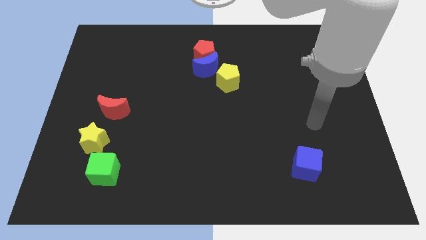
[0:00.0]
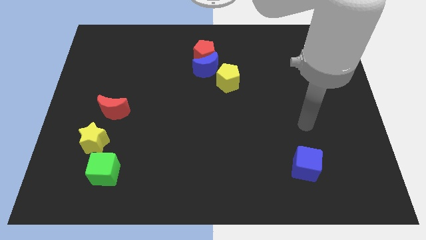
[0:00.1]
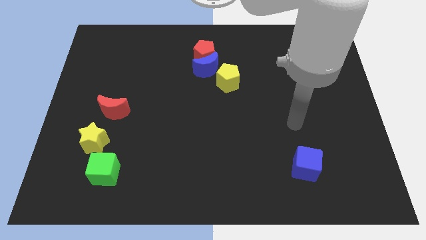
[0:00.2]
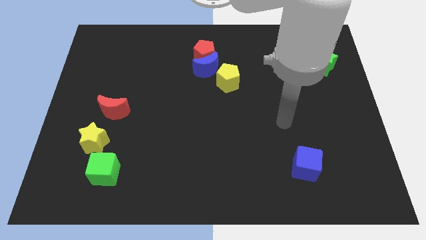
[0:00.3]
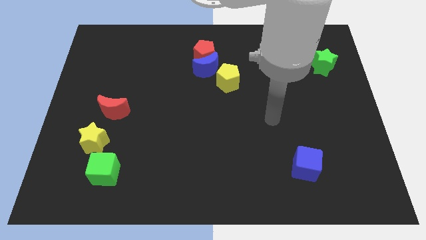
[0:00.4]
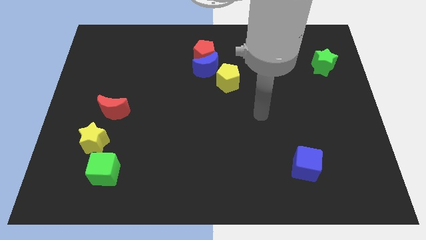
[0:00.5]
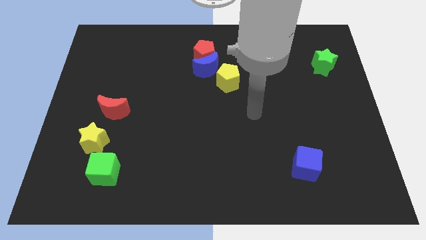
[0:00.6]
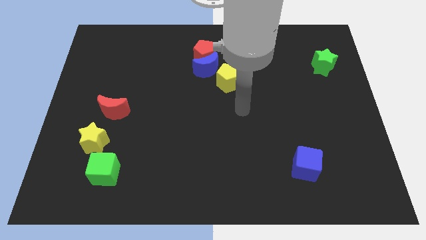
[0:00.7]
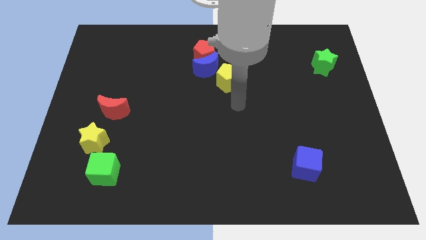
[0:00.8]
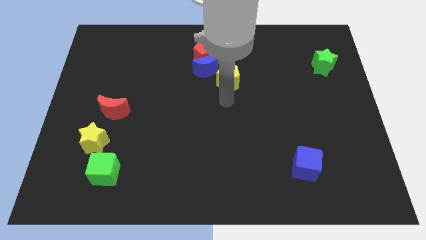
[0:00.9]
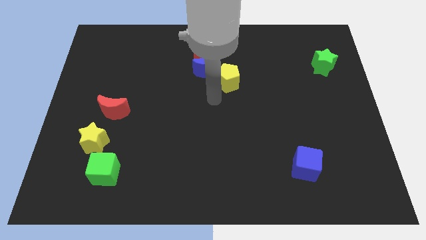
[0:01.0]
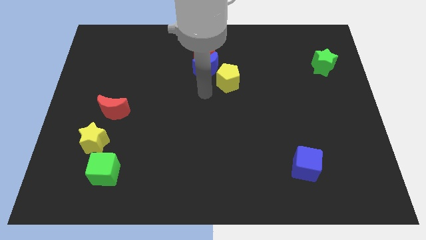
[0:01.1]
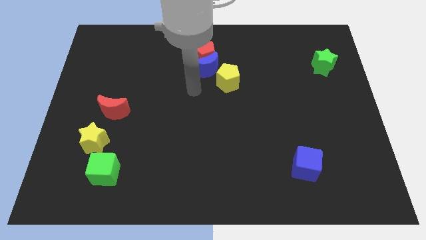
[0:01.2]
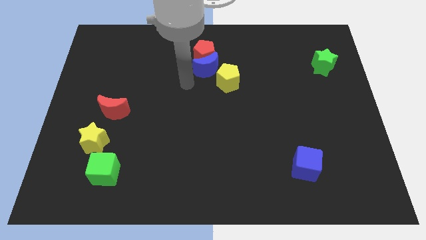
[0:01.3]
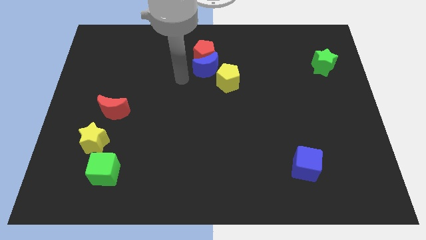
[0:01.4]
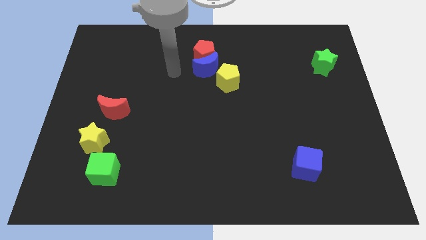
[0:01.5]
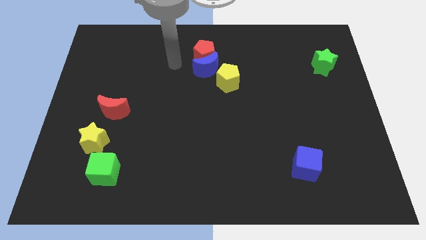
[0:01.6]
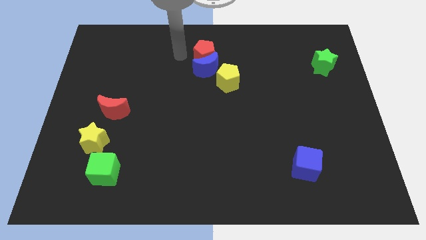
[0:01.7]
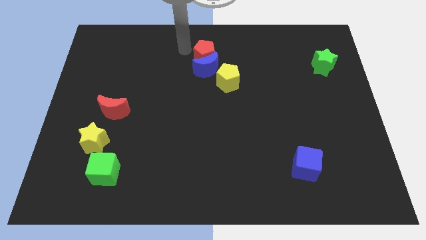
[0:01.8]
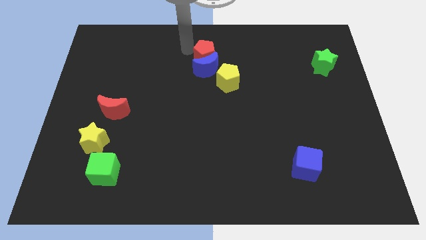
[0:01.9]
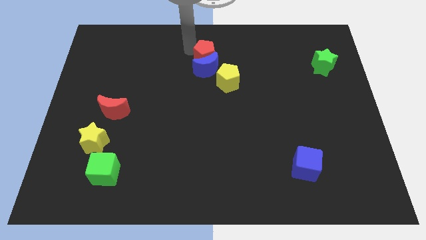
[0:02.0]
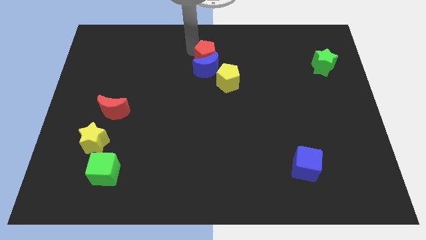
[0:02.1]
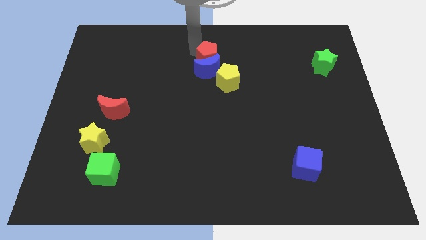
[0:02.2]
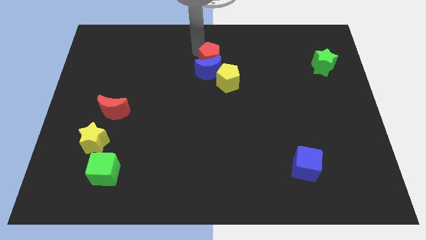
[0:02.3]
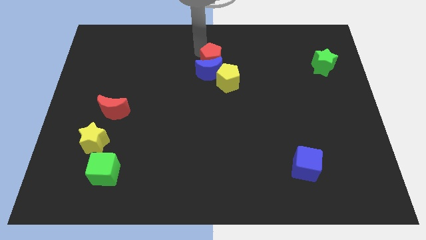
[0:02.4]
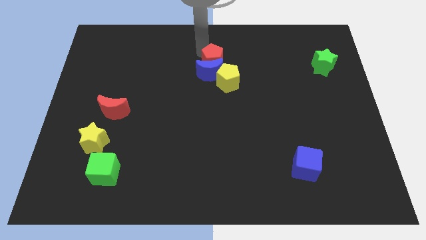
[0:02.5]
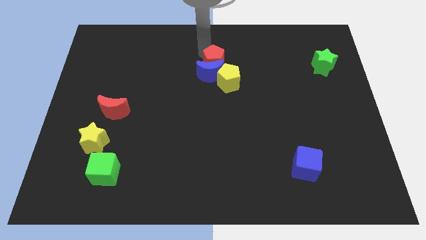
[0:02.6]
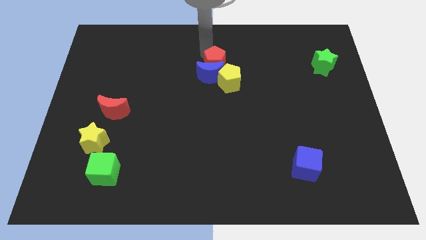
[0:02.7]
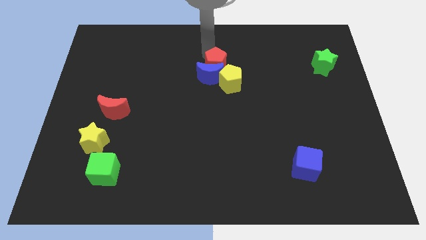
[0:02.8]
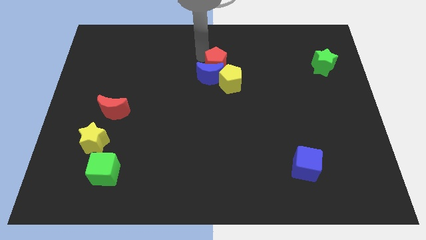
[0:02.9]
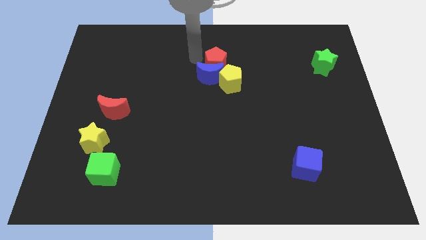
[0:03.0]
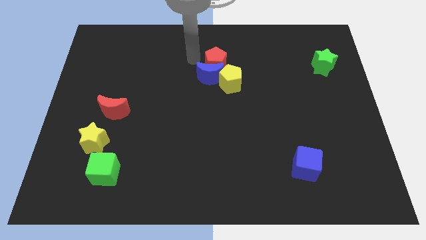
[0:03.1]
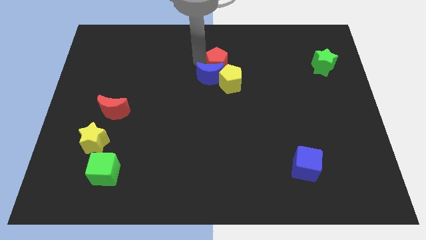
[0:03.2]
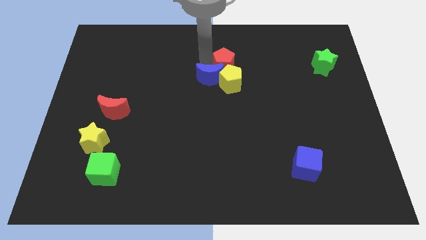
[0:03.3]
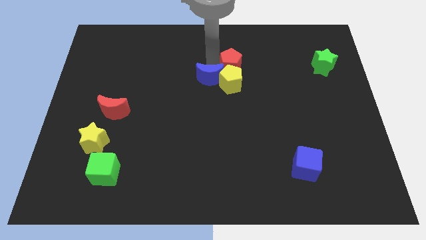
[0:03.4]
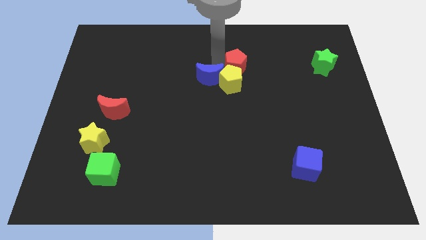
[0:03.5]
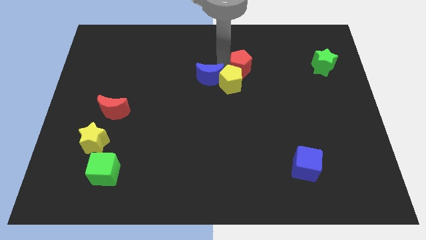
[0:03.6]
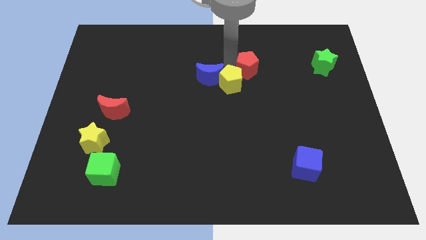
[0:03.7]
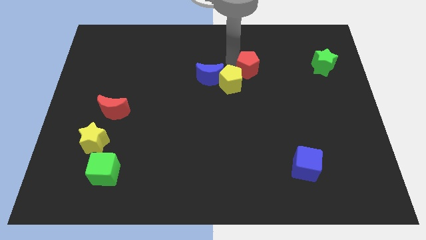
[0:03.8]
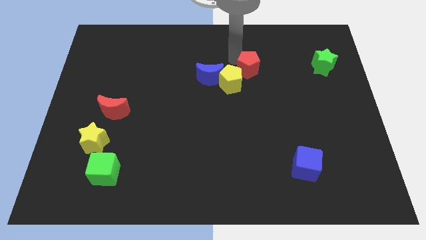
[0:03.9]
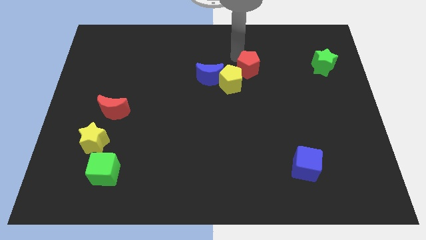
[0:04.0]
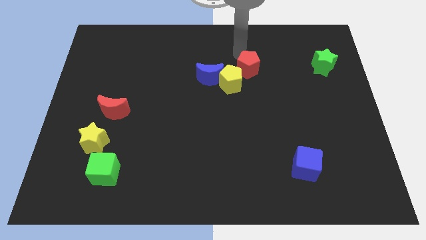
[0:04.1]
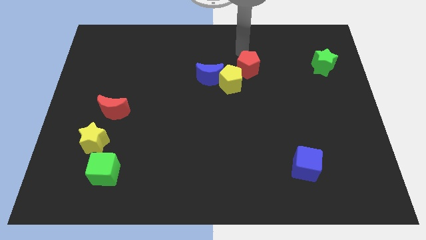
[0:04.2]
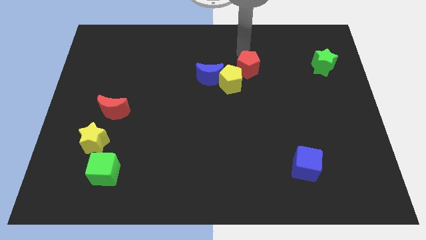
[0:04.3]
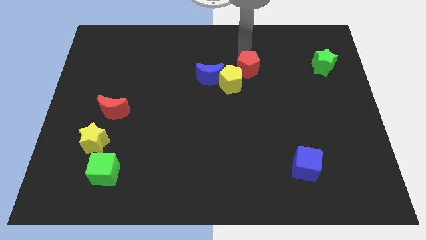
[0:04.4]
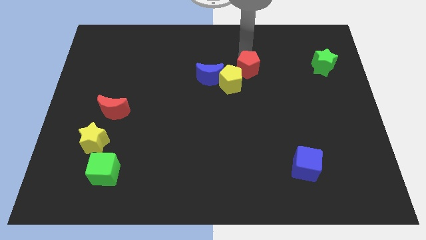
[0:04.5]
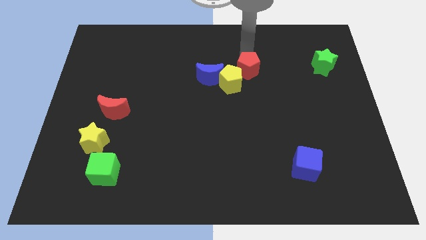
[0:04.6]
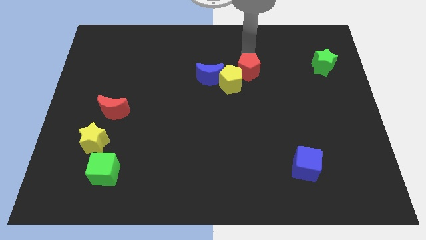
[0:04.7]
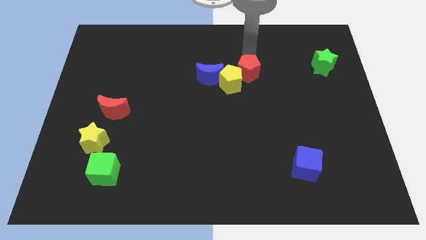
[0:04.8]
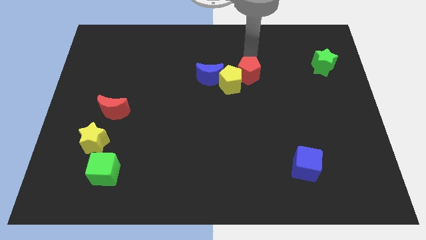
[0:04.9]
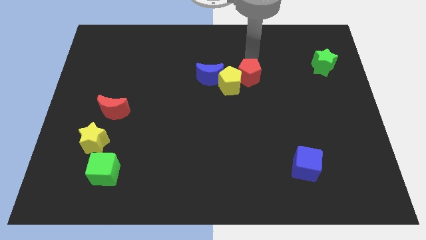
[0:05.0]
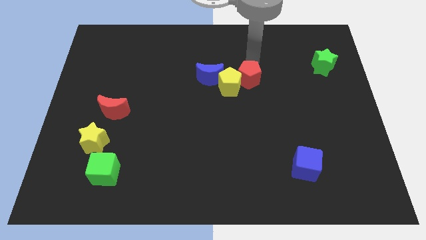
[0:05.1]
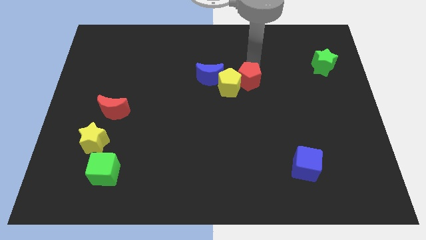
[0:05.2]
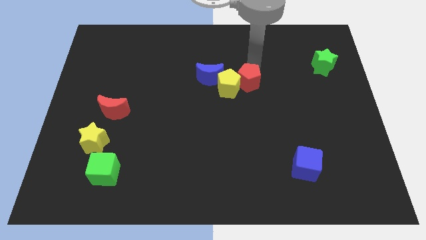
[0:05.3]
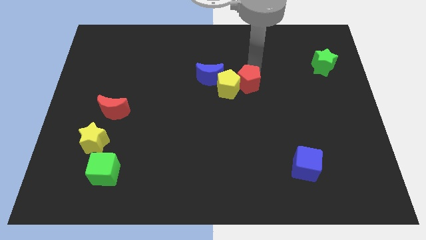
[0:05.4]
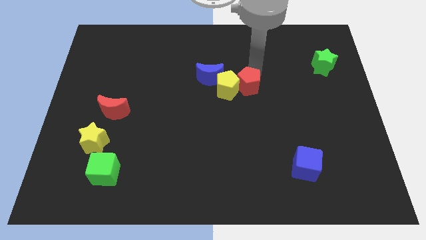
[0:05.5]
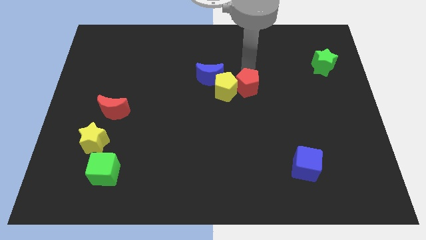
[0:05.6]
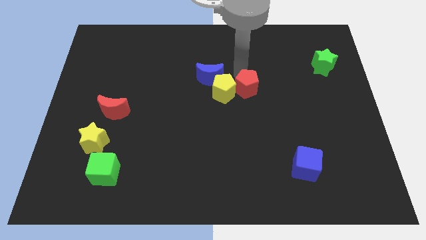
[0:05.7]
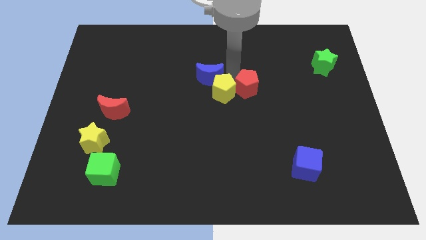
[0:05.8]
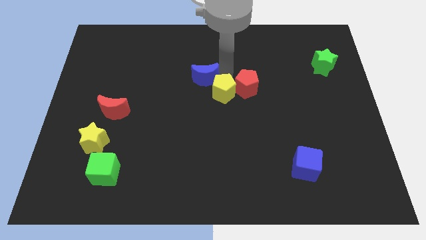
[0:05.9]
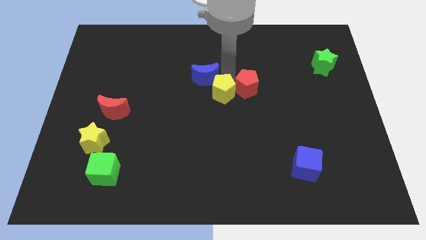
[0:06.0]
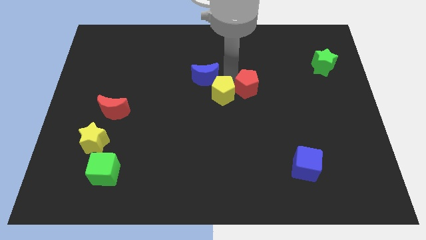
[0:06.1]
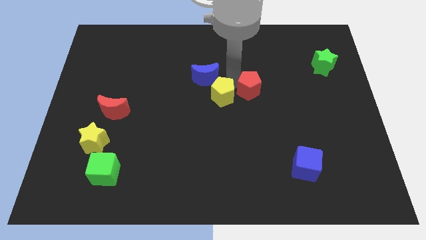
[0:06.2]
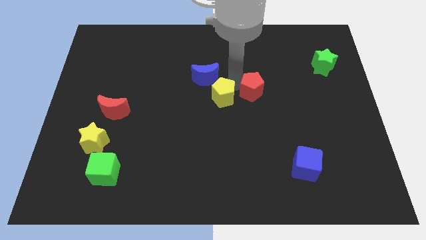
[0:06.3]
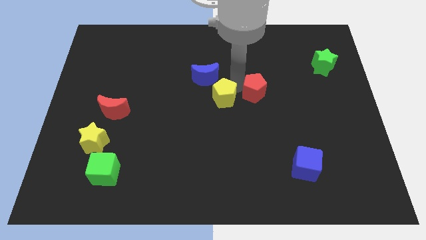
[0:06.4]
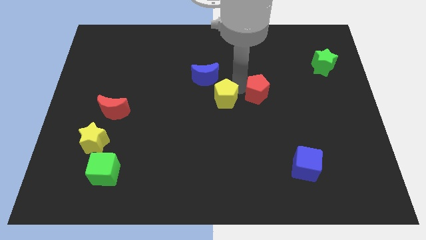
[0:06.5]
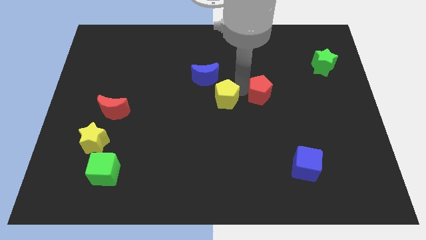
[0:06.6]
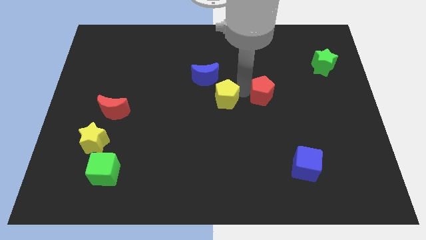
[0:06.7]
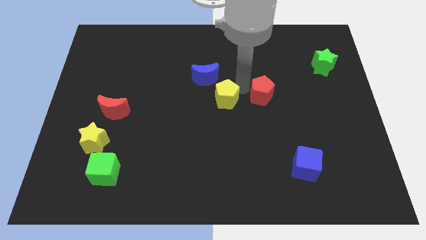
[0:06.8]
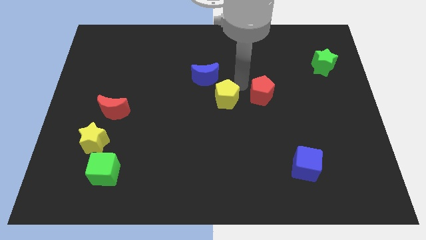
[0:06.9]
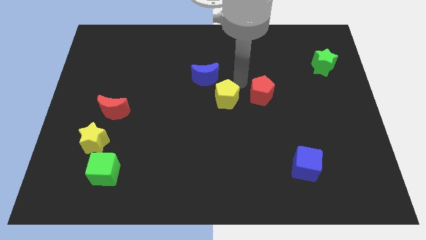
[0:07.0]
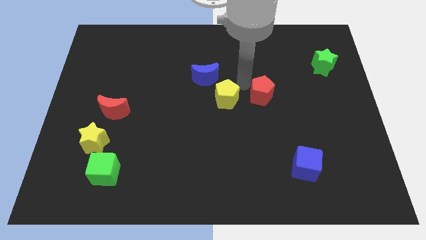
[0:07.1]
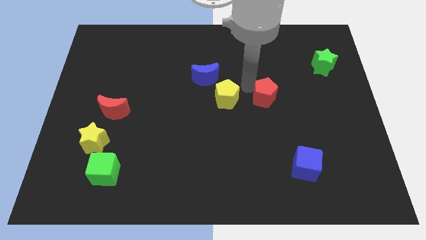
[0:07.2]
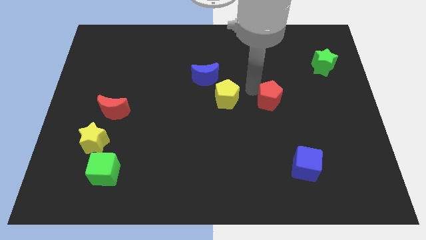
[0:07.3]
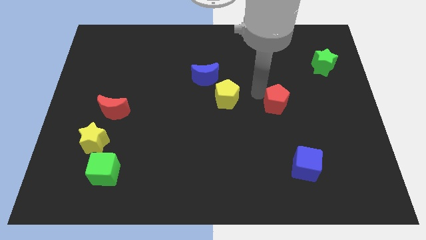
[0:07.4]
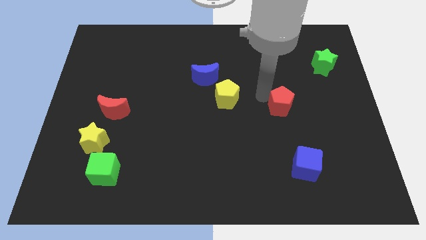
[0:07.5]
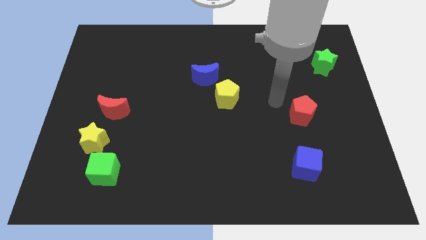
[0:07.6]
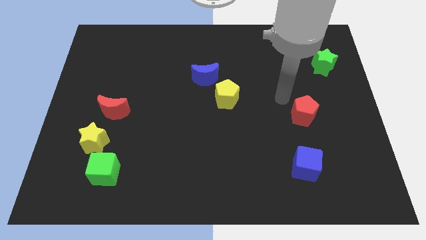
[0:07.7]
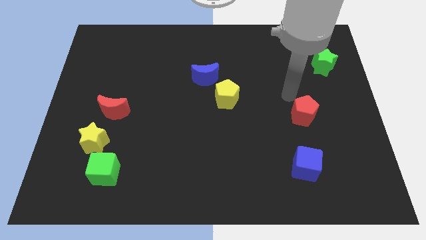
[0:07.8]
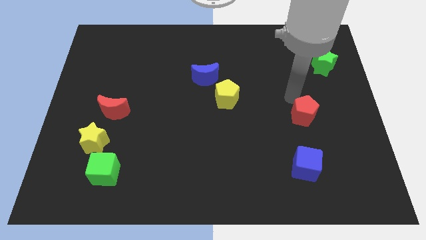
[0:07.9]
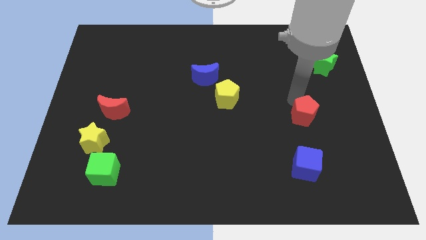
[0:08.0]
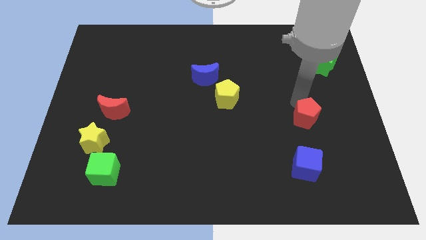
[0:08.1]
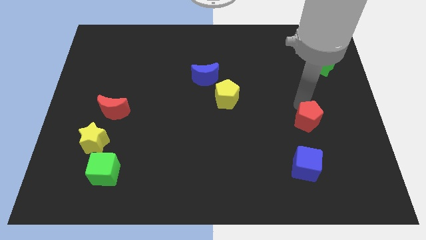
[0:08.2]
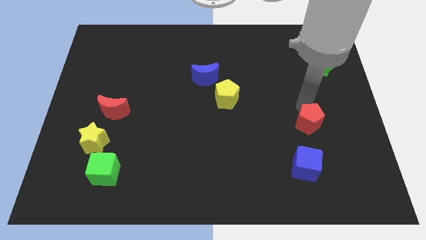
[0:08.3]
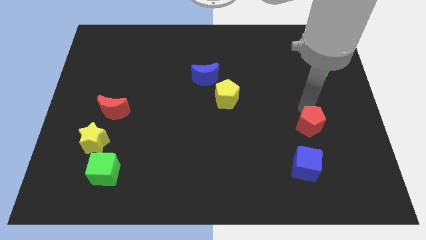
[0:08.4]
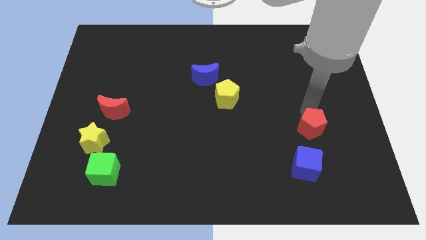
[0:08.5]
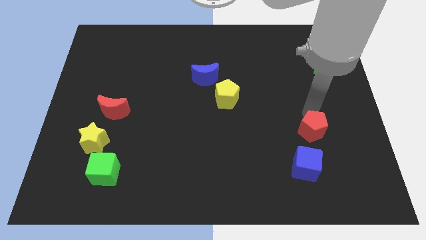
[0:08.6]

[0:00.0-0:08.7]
put the red pentagon diagonally up and to the right of the blue cube
